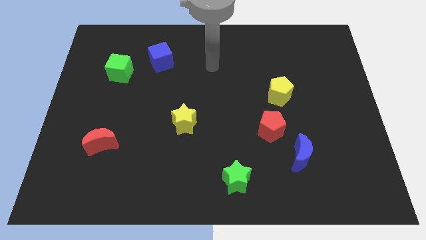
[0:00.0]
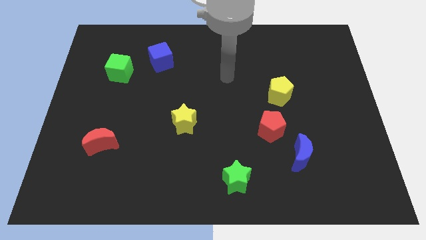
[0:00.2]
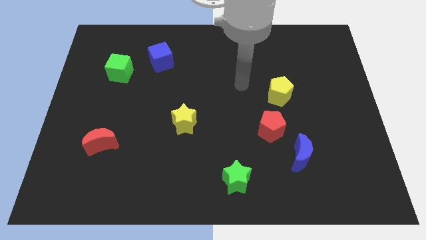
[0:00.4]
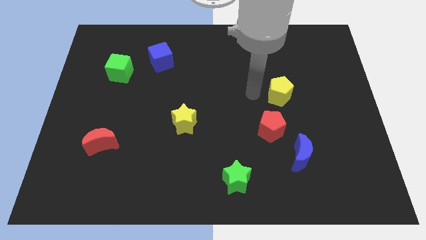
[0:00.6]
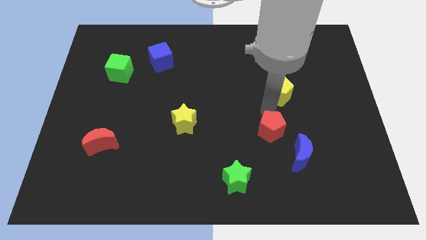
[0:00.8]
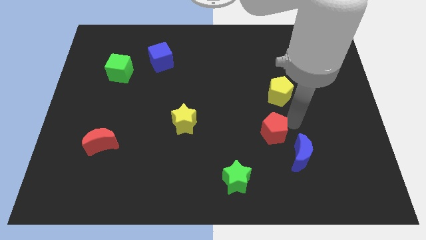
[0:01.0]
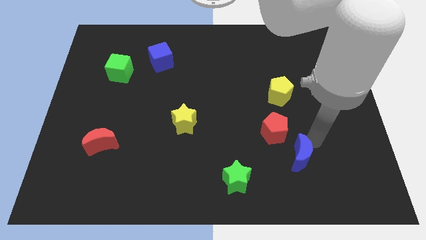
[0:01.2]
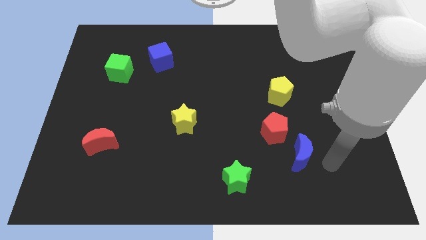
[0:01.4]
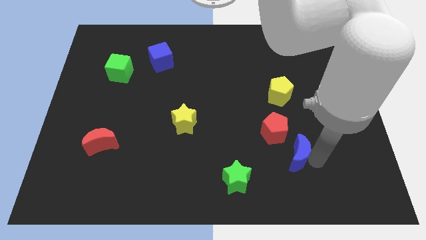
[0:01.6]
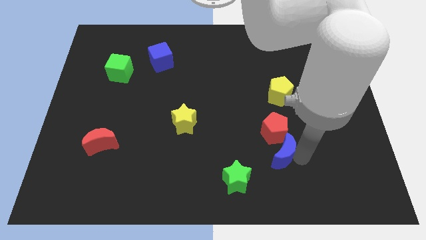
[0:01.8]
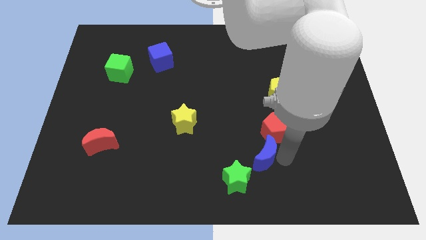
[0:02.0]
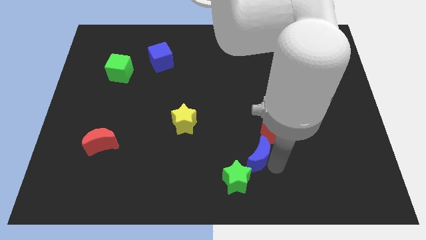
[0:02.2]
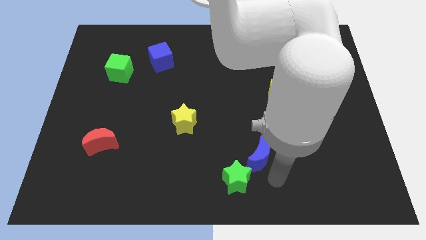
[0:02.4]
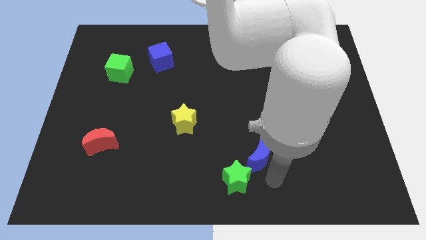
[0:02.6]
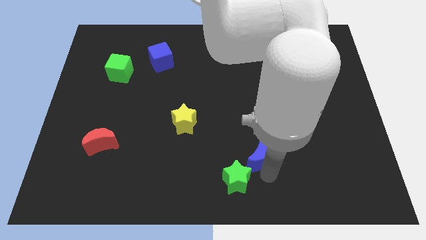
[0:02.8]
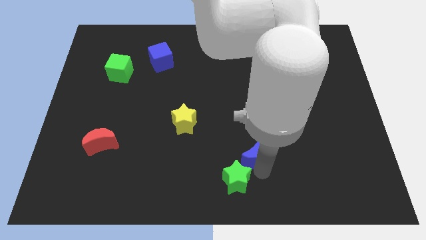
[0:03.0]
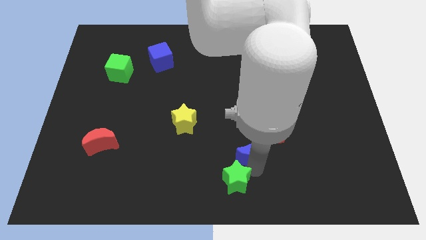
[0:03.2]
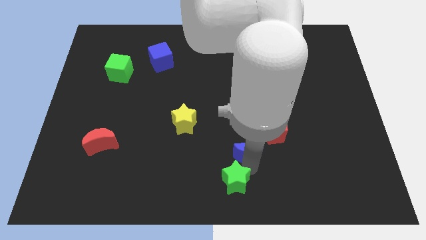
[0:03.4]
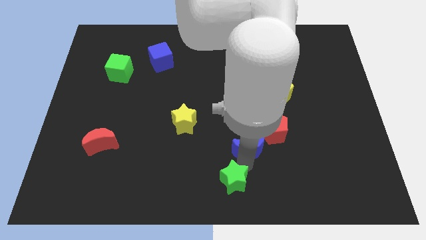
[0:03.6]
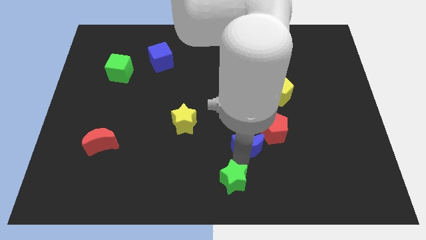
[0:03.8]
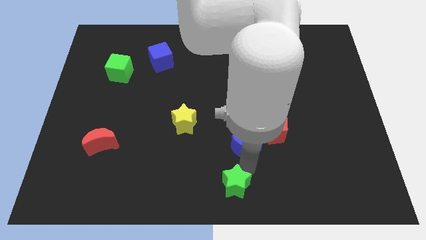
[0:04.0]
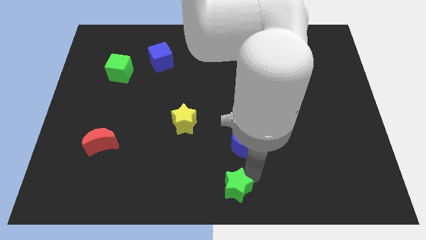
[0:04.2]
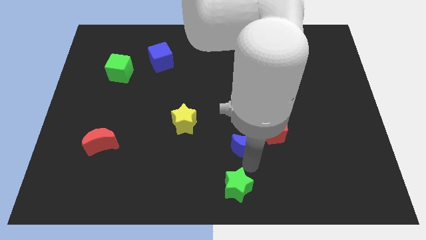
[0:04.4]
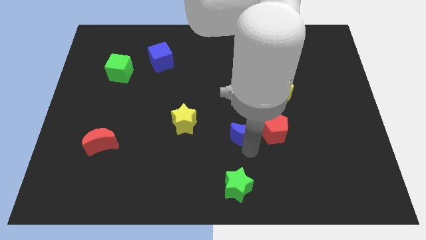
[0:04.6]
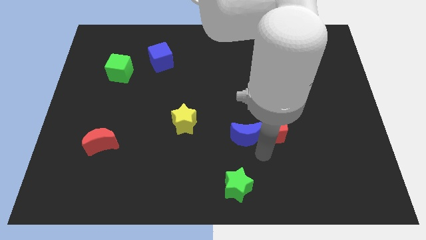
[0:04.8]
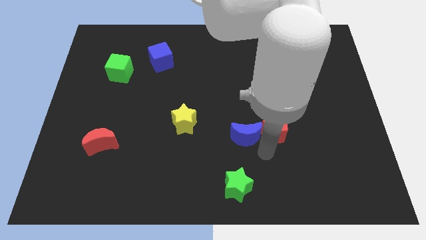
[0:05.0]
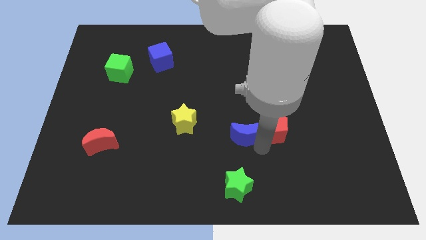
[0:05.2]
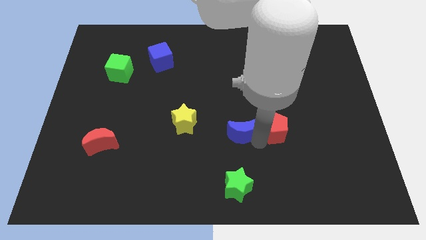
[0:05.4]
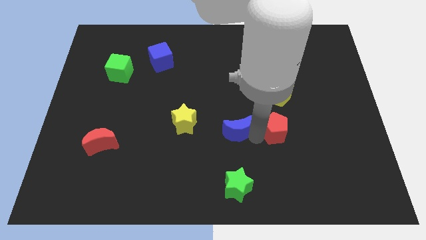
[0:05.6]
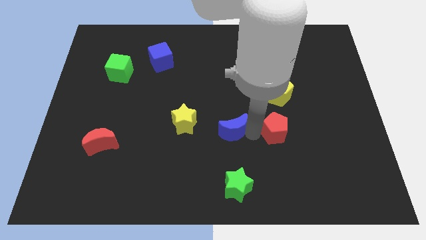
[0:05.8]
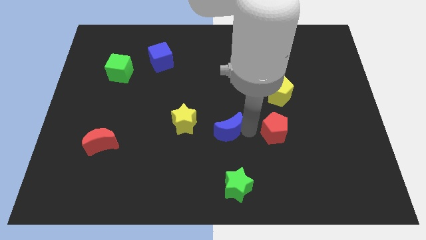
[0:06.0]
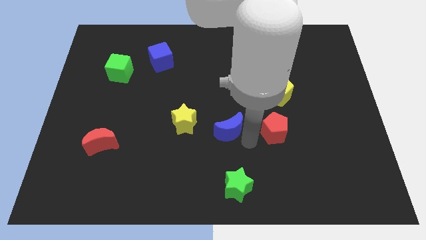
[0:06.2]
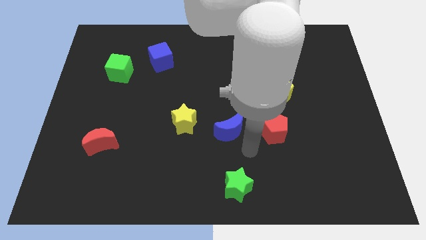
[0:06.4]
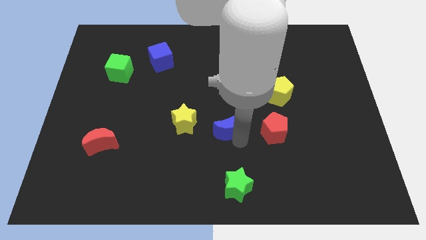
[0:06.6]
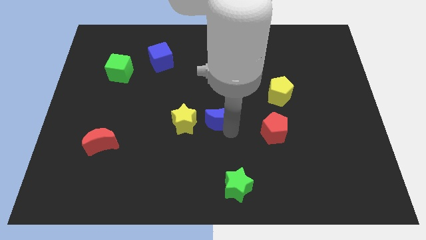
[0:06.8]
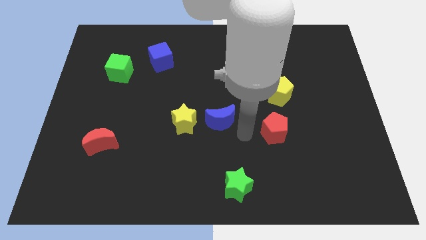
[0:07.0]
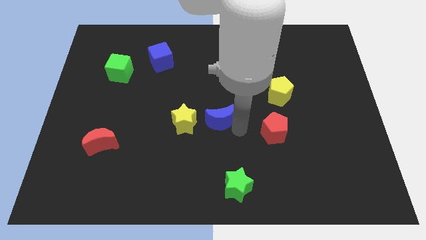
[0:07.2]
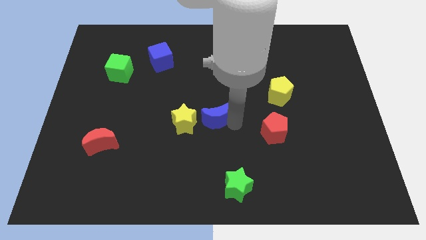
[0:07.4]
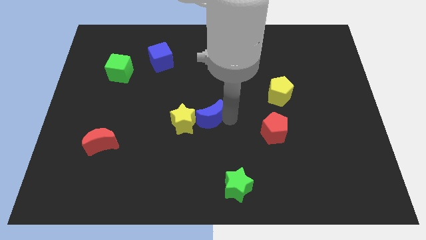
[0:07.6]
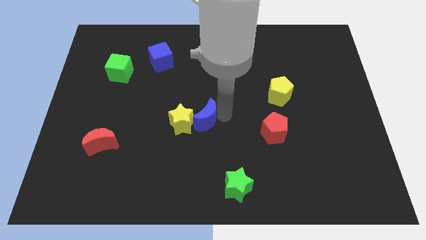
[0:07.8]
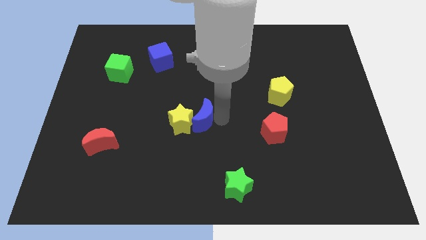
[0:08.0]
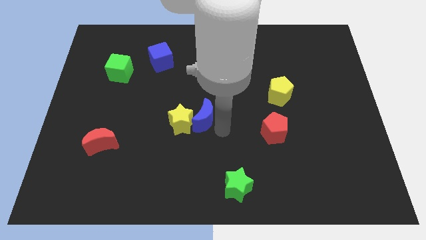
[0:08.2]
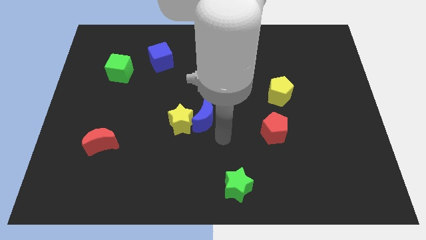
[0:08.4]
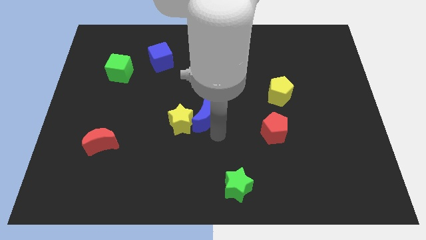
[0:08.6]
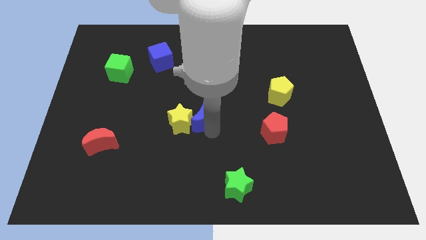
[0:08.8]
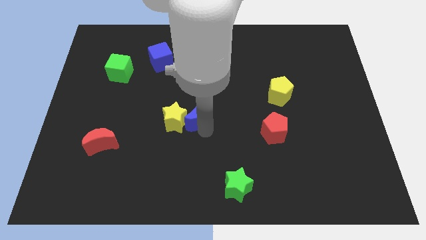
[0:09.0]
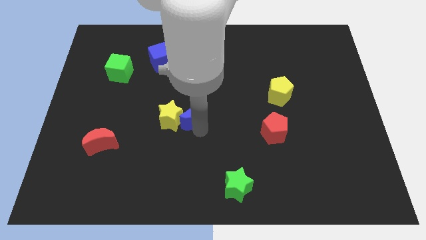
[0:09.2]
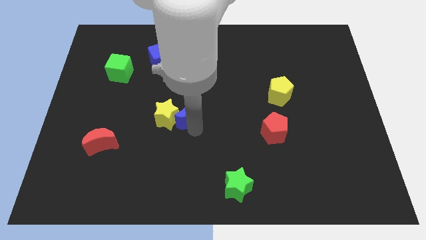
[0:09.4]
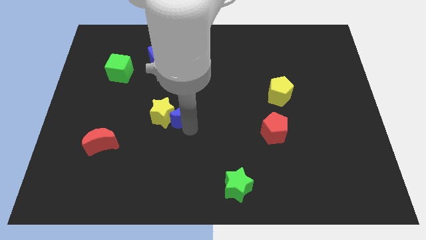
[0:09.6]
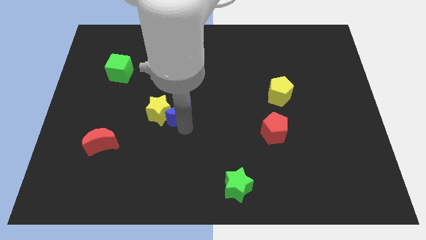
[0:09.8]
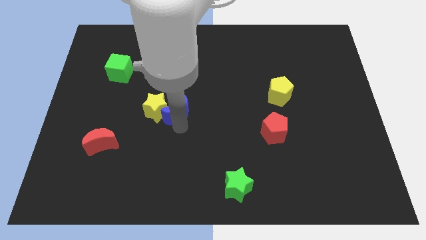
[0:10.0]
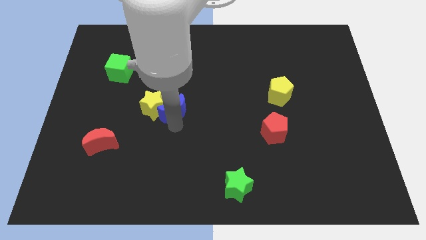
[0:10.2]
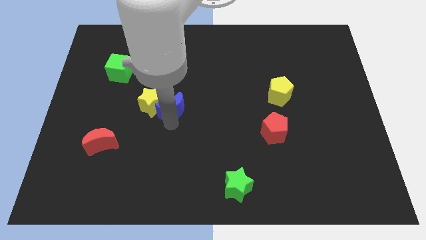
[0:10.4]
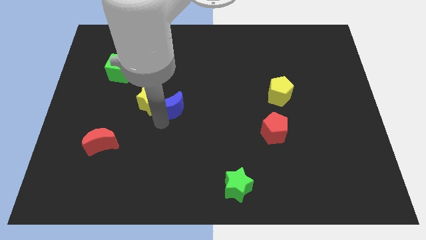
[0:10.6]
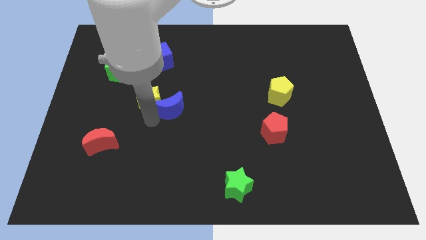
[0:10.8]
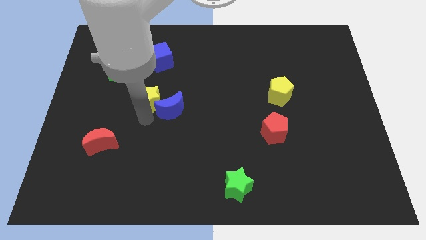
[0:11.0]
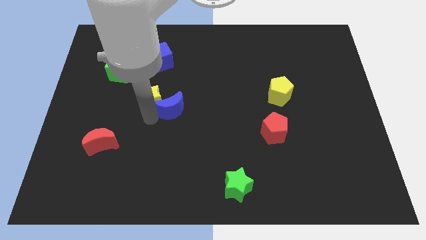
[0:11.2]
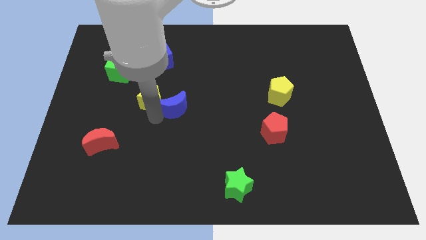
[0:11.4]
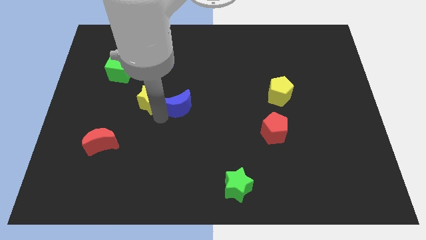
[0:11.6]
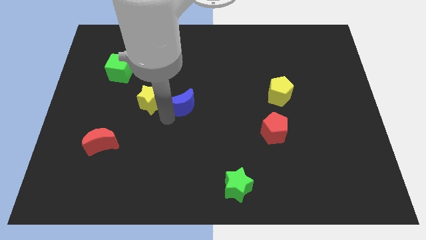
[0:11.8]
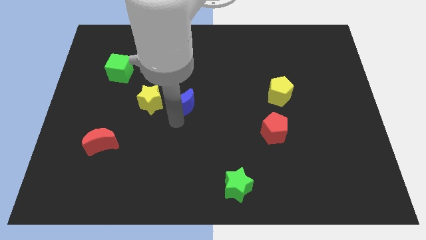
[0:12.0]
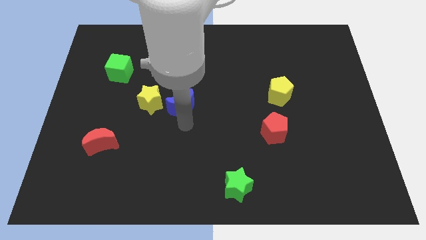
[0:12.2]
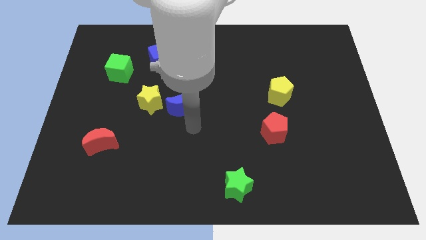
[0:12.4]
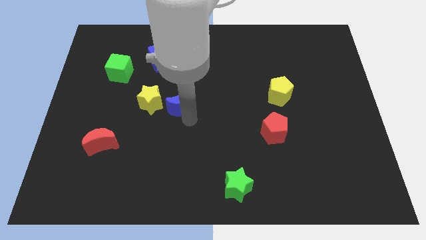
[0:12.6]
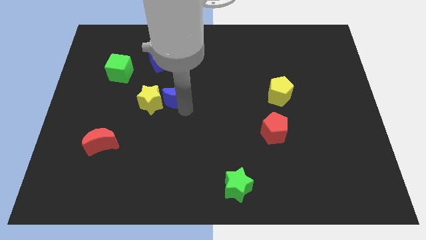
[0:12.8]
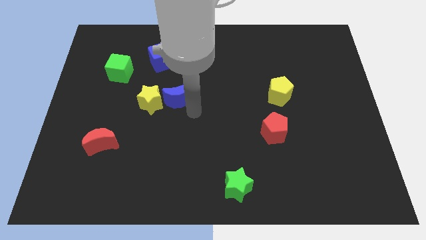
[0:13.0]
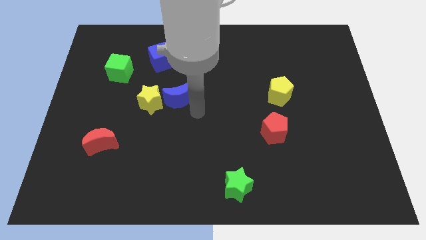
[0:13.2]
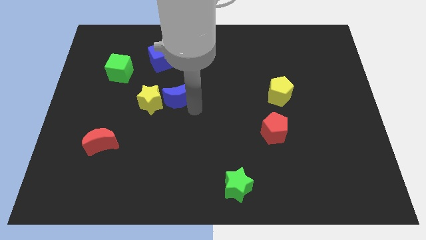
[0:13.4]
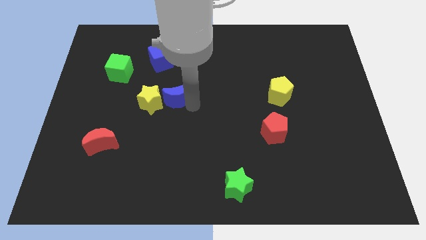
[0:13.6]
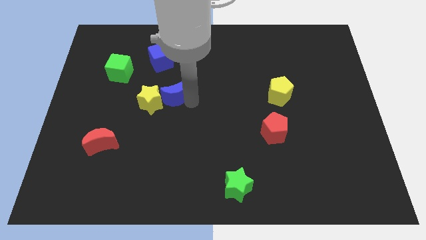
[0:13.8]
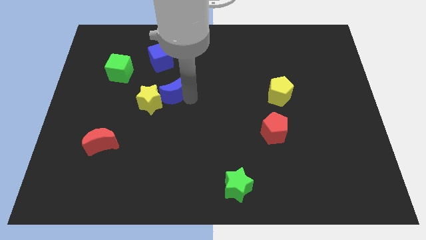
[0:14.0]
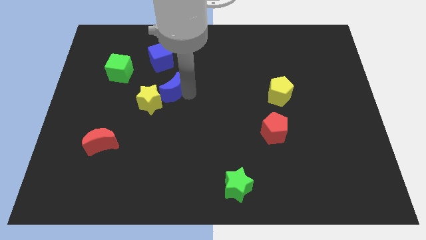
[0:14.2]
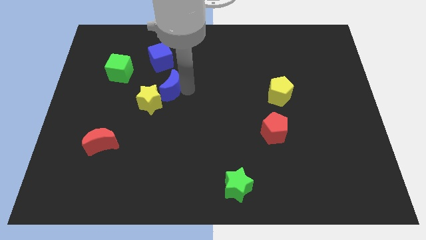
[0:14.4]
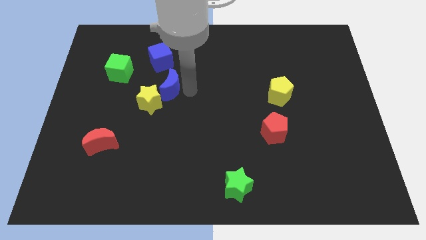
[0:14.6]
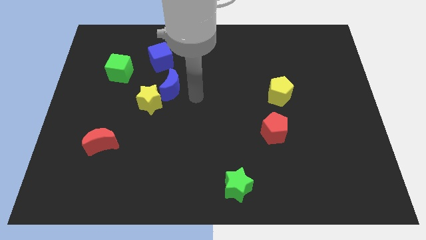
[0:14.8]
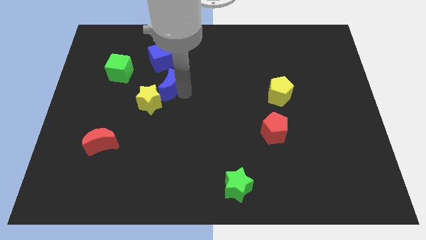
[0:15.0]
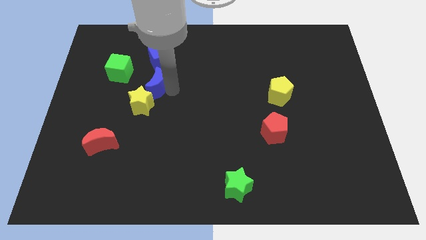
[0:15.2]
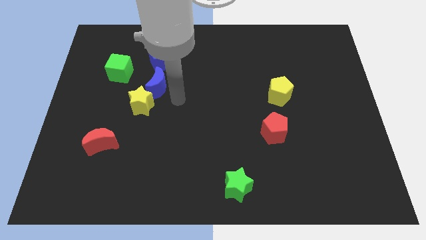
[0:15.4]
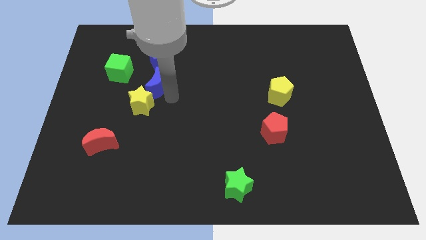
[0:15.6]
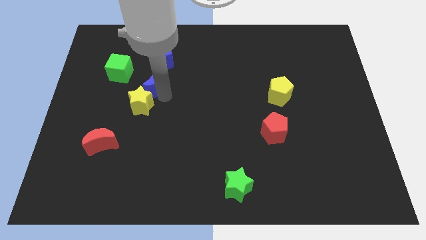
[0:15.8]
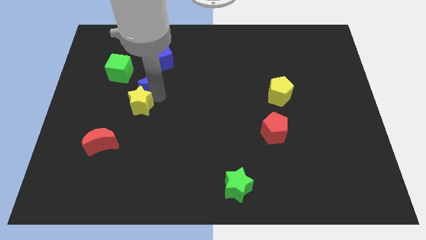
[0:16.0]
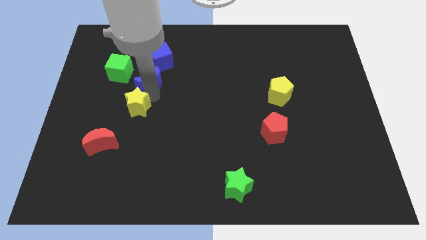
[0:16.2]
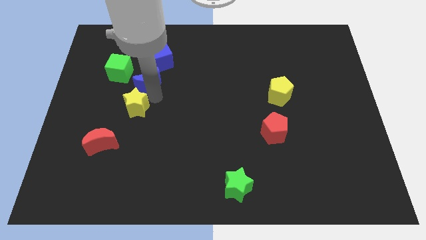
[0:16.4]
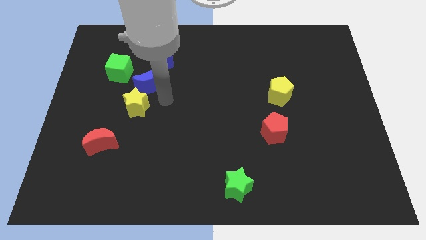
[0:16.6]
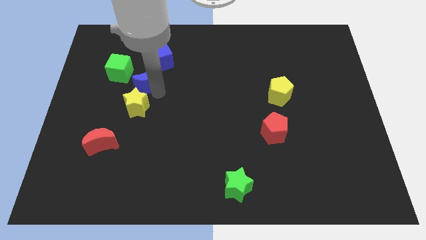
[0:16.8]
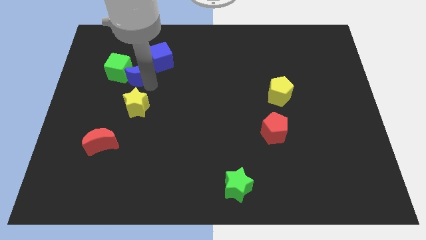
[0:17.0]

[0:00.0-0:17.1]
put the blue moon to the green cube
